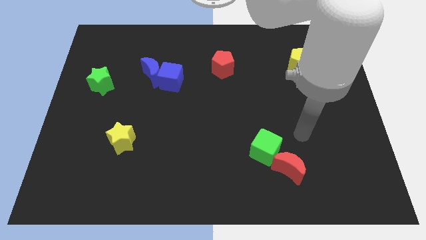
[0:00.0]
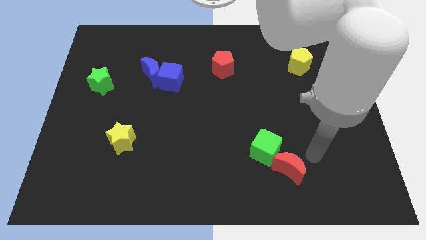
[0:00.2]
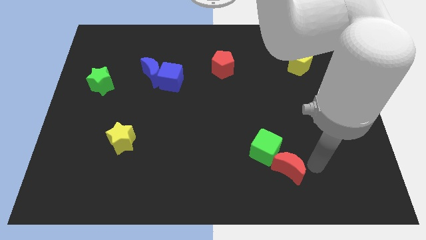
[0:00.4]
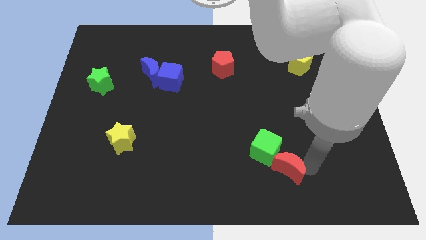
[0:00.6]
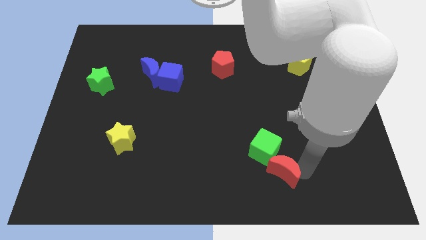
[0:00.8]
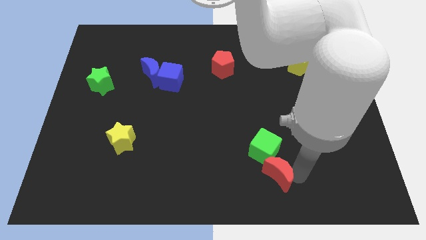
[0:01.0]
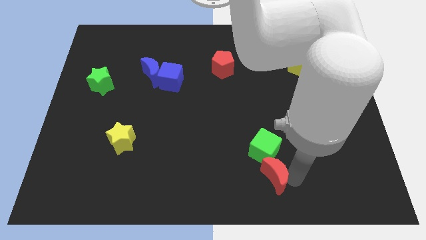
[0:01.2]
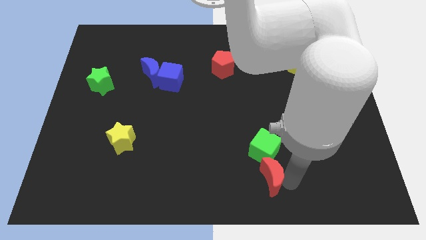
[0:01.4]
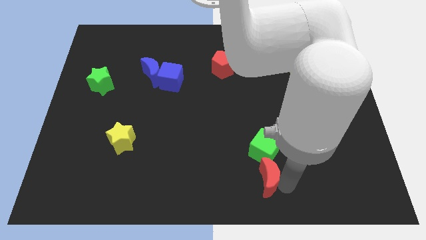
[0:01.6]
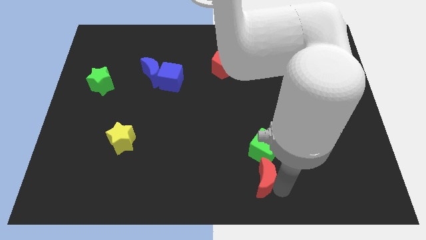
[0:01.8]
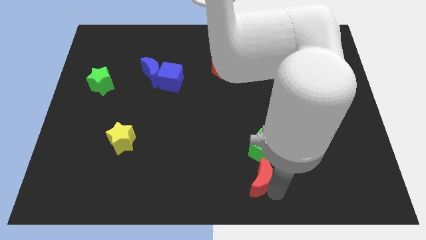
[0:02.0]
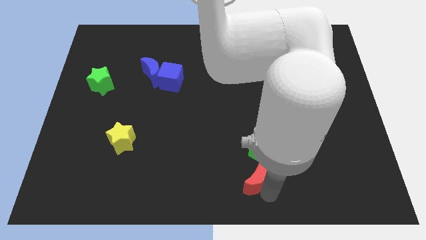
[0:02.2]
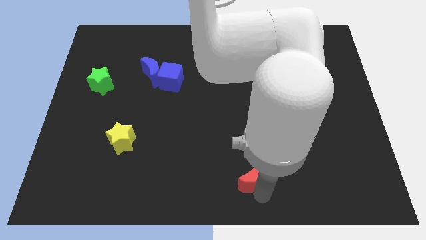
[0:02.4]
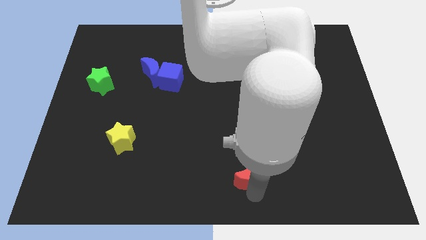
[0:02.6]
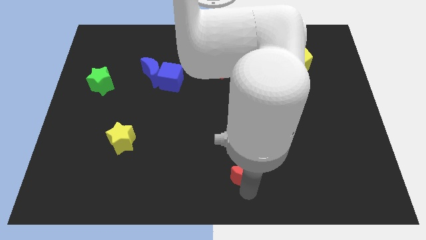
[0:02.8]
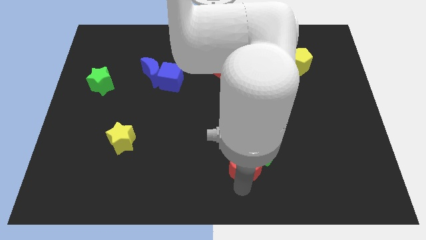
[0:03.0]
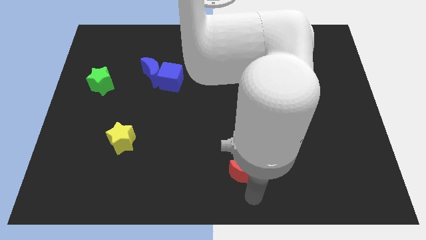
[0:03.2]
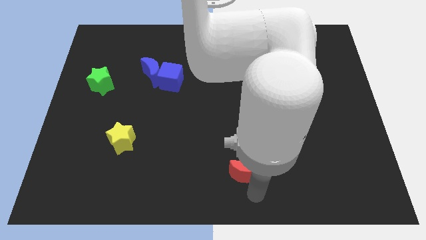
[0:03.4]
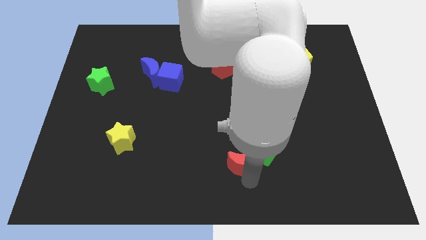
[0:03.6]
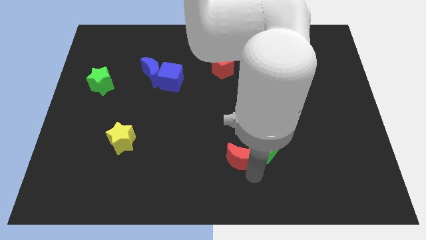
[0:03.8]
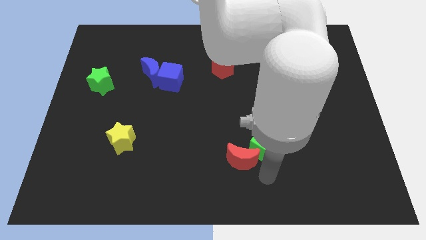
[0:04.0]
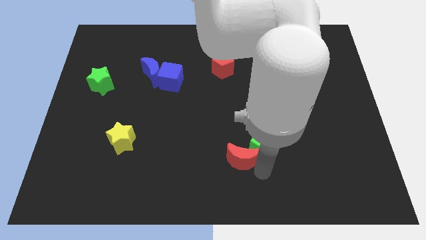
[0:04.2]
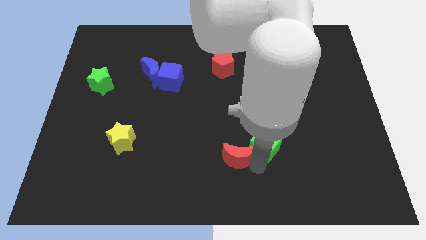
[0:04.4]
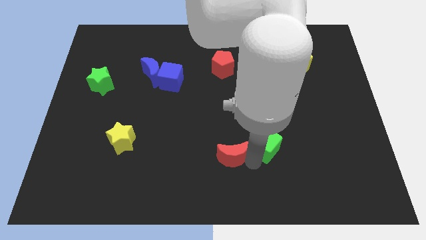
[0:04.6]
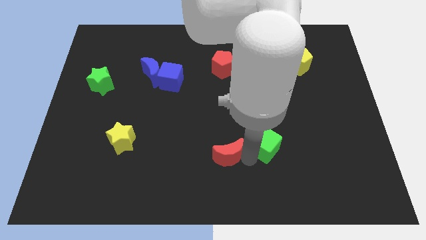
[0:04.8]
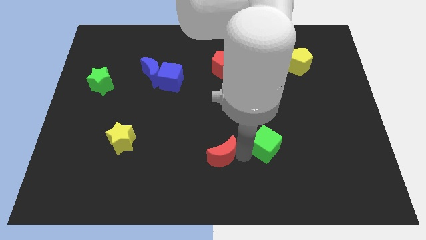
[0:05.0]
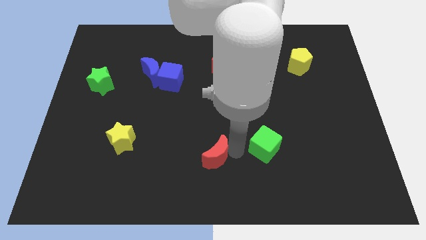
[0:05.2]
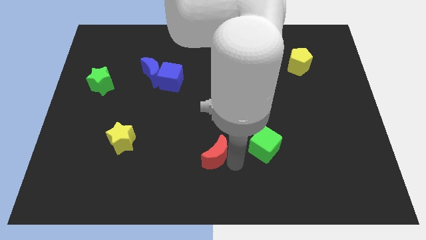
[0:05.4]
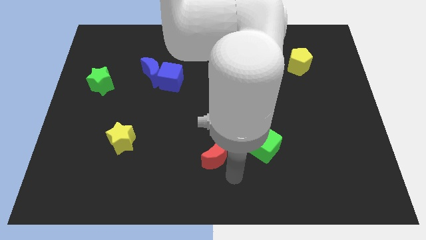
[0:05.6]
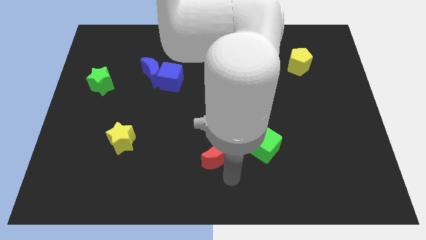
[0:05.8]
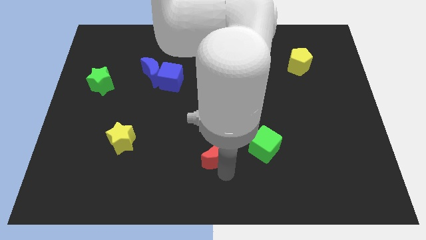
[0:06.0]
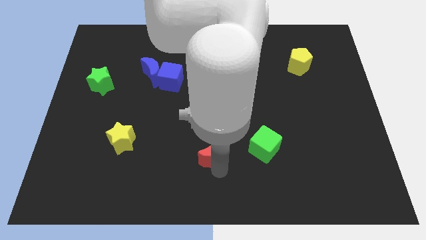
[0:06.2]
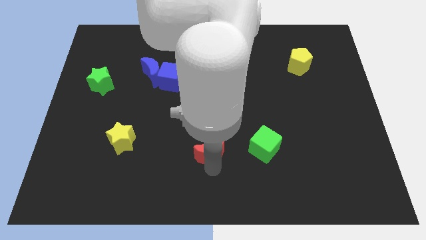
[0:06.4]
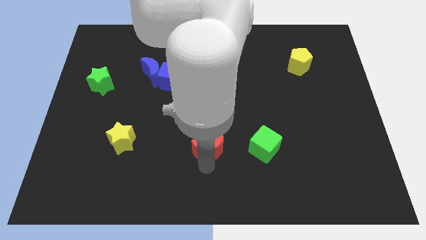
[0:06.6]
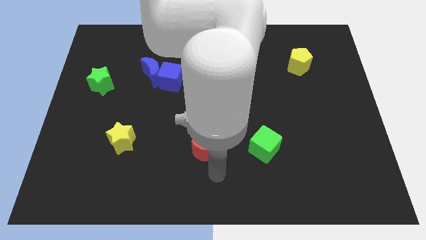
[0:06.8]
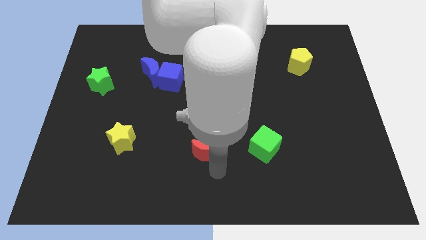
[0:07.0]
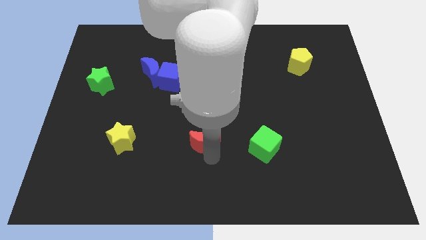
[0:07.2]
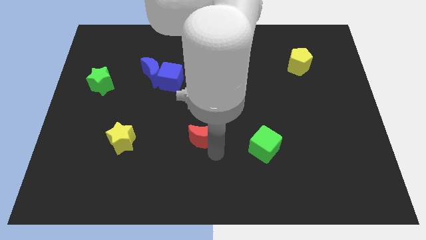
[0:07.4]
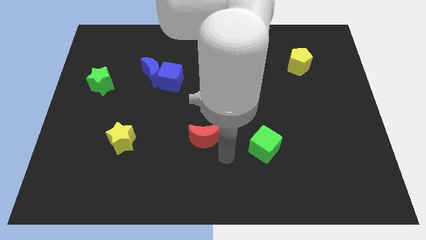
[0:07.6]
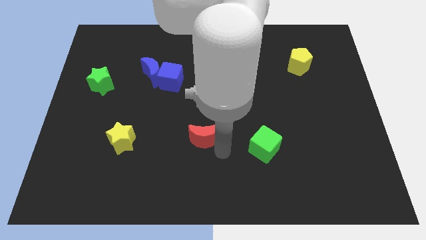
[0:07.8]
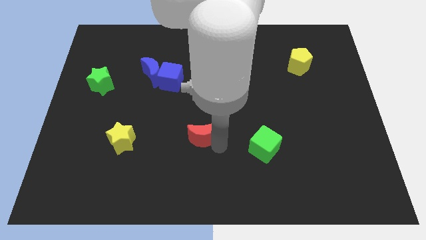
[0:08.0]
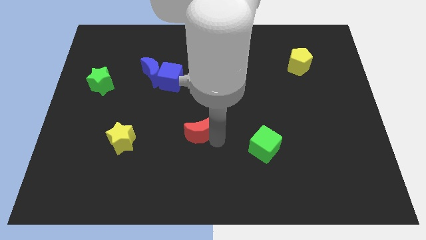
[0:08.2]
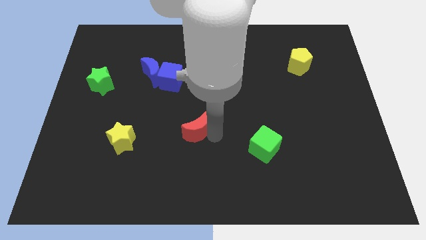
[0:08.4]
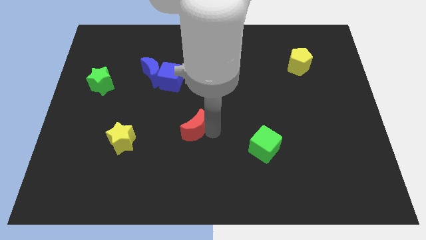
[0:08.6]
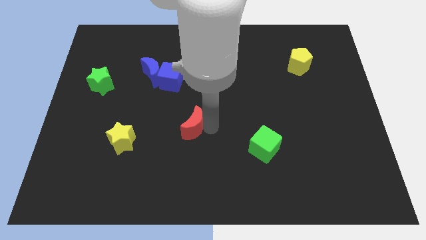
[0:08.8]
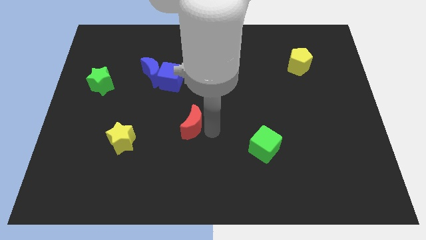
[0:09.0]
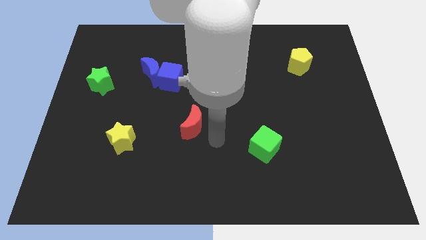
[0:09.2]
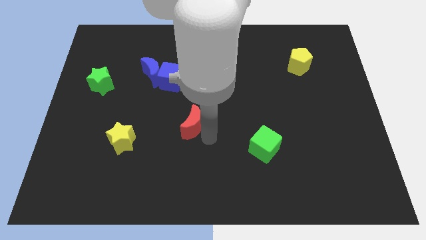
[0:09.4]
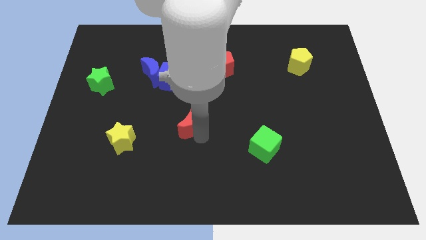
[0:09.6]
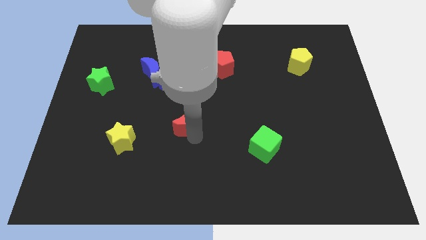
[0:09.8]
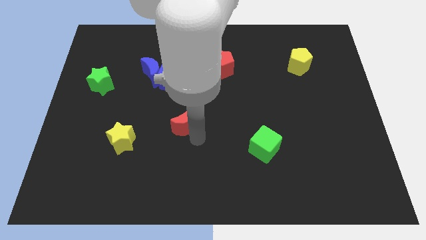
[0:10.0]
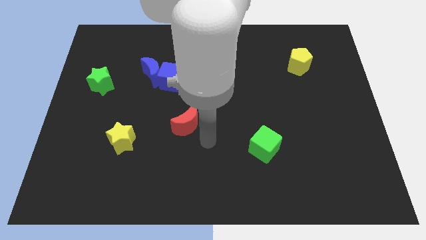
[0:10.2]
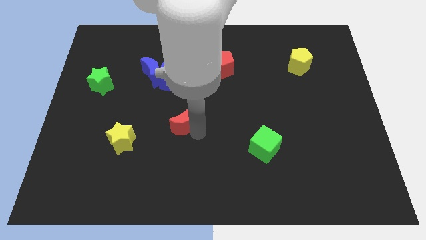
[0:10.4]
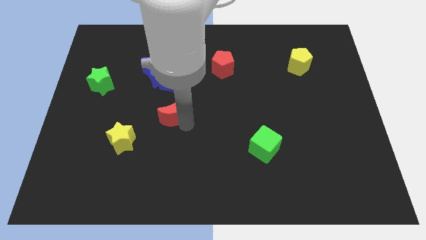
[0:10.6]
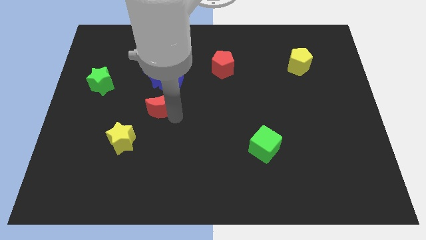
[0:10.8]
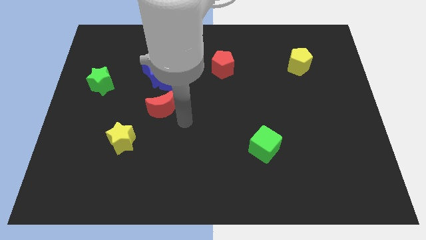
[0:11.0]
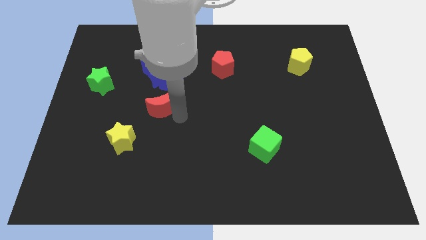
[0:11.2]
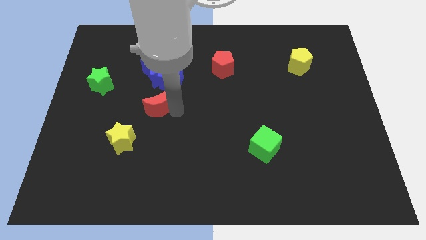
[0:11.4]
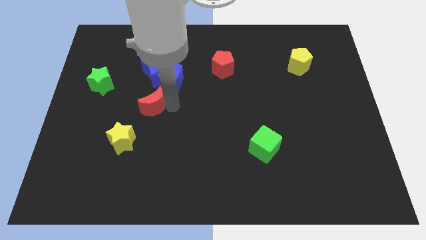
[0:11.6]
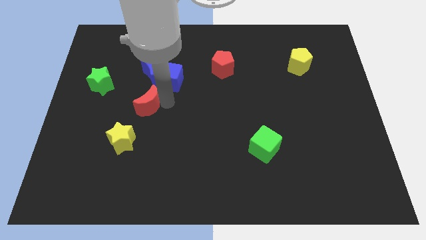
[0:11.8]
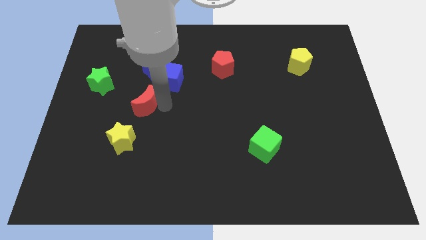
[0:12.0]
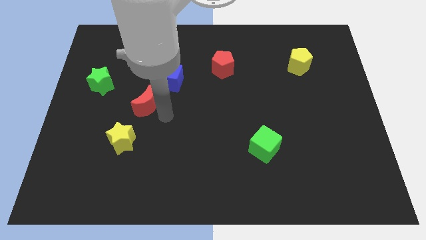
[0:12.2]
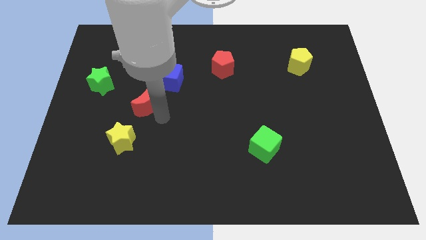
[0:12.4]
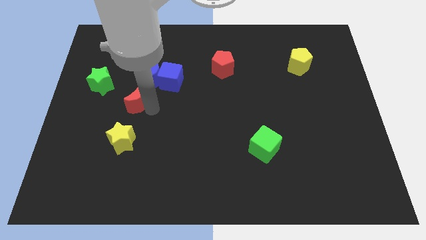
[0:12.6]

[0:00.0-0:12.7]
push the red moon to the bottom left of the blue moon

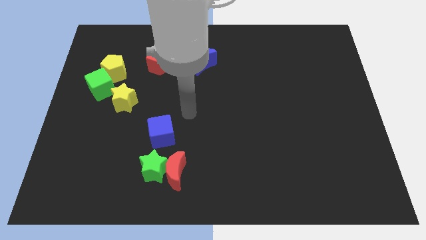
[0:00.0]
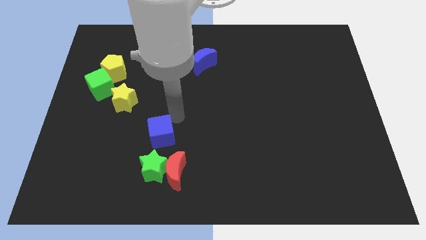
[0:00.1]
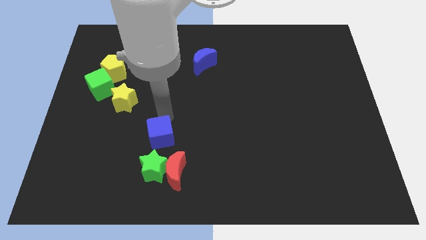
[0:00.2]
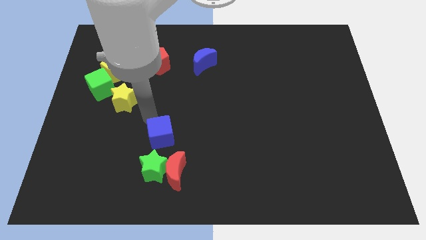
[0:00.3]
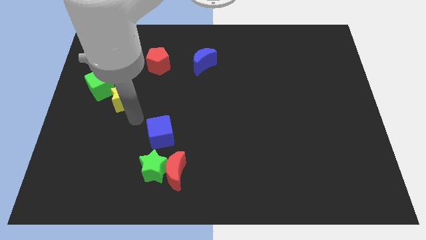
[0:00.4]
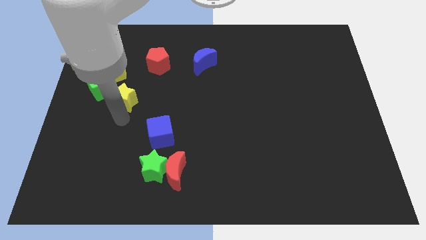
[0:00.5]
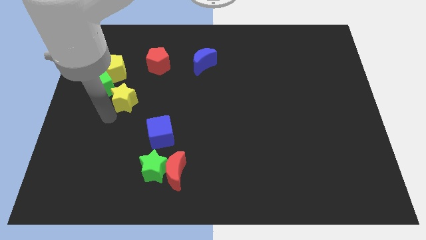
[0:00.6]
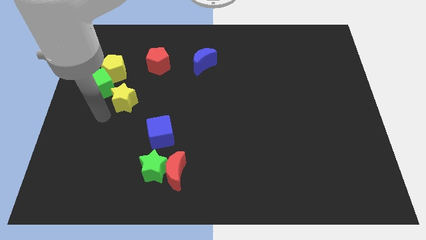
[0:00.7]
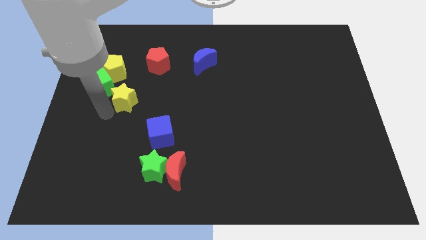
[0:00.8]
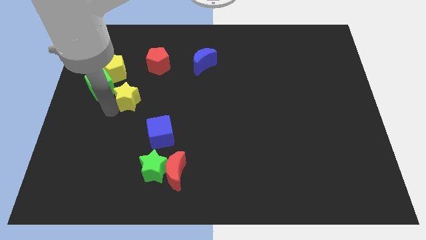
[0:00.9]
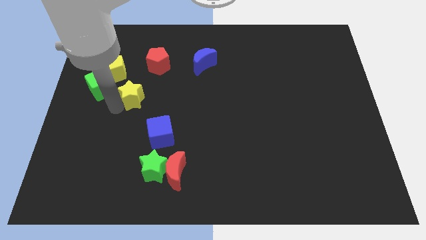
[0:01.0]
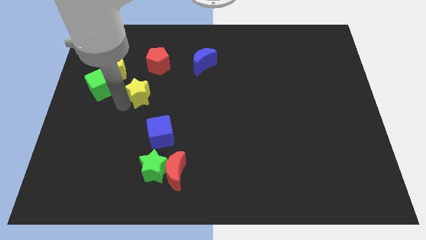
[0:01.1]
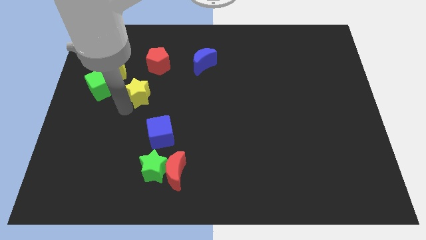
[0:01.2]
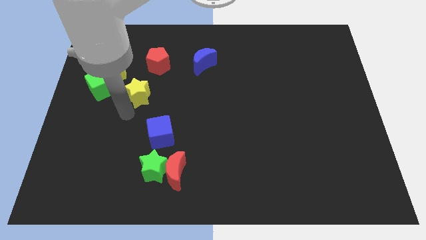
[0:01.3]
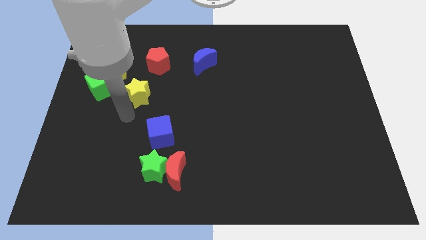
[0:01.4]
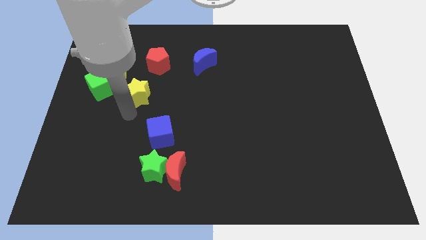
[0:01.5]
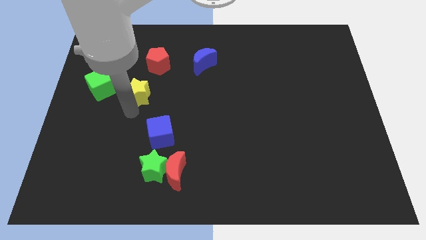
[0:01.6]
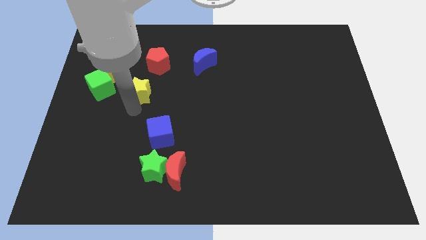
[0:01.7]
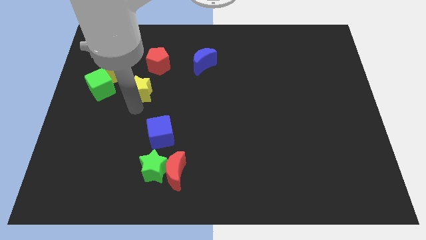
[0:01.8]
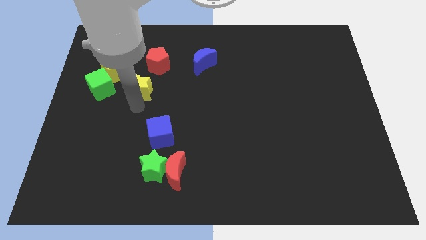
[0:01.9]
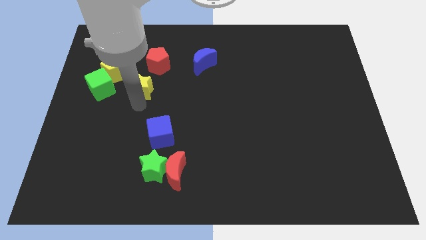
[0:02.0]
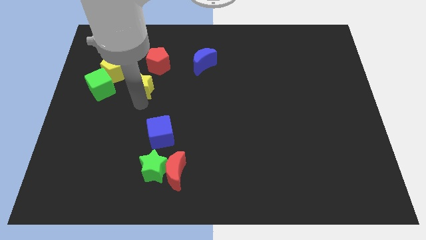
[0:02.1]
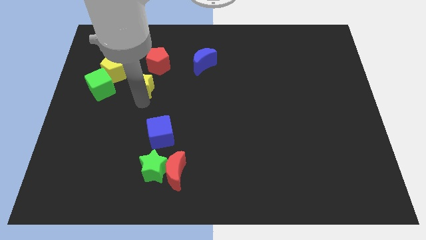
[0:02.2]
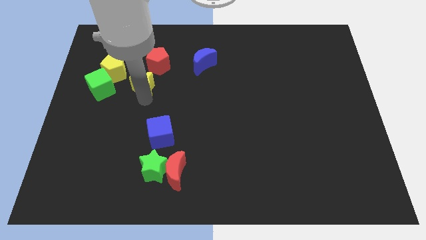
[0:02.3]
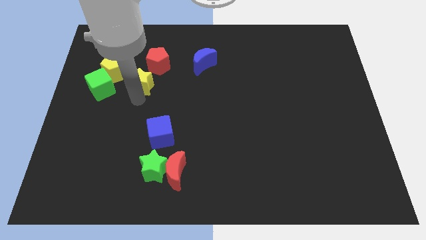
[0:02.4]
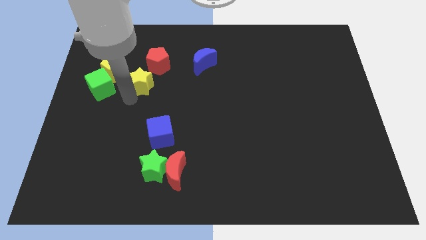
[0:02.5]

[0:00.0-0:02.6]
move the yellow star just right of the yellow pentagon
